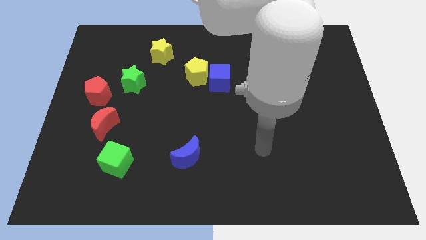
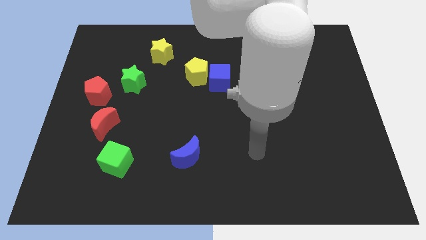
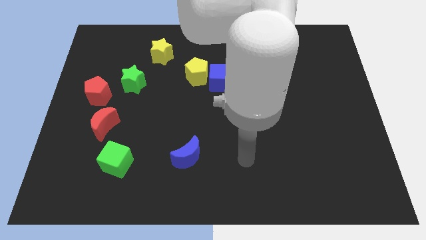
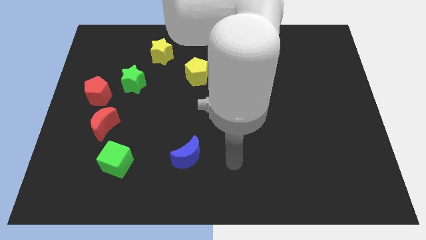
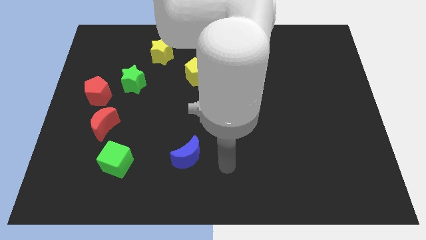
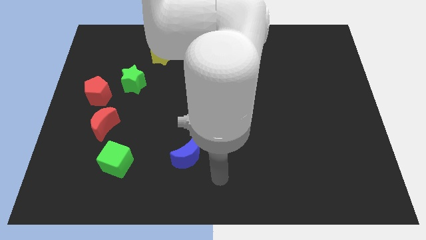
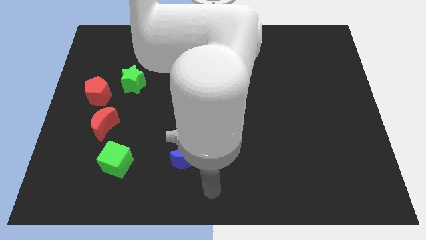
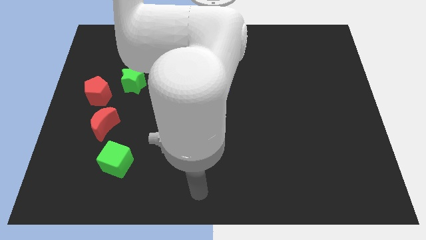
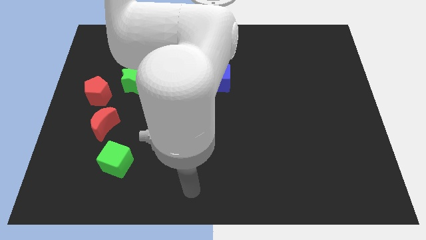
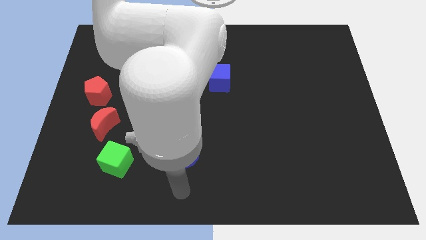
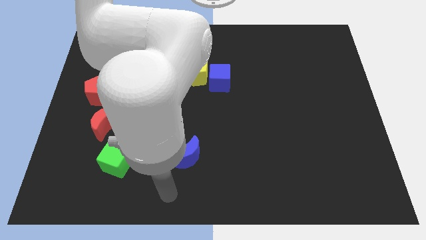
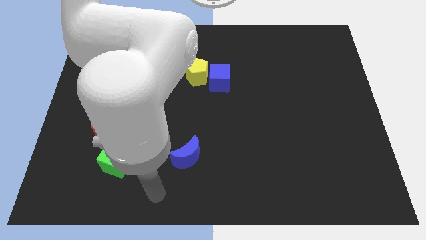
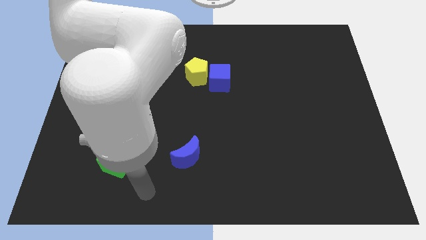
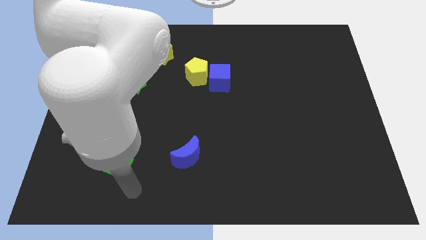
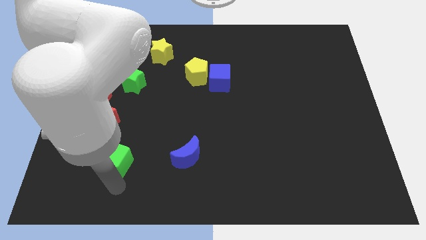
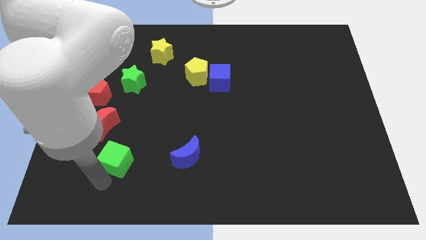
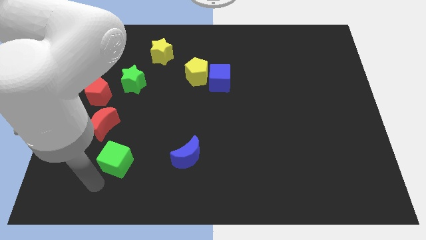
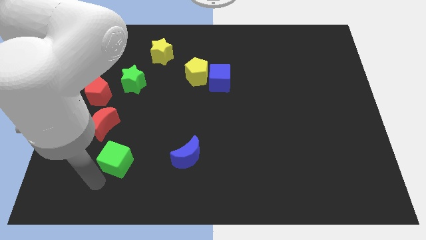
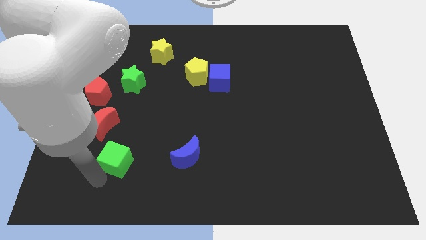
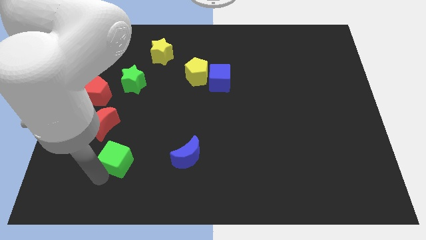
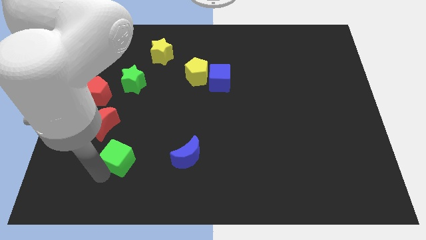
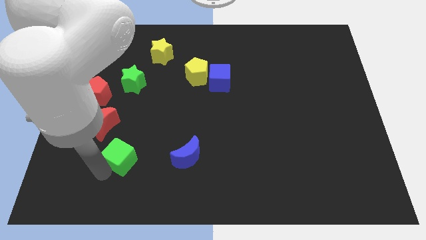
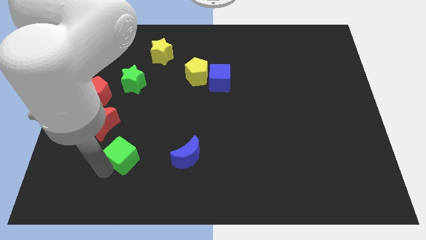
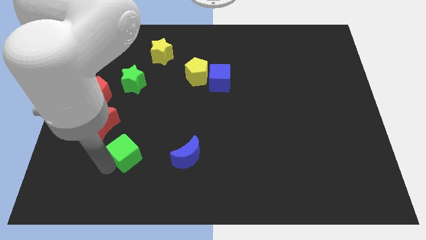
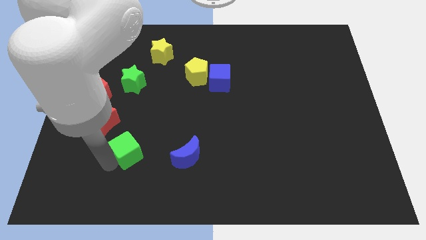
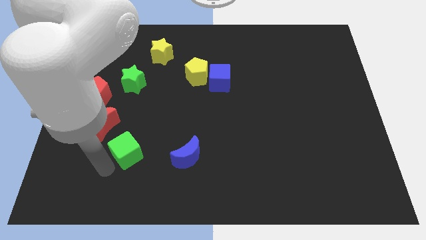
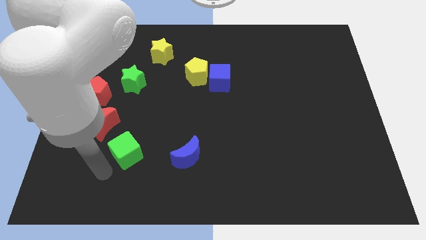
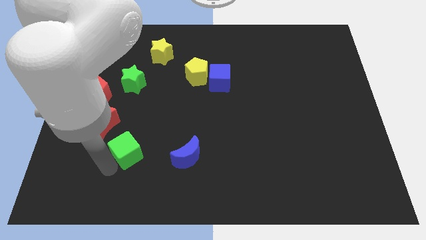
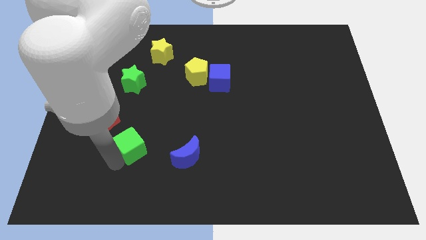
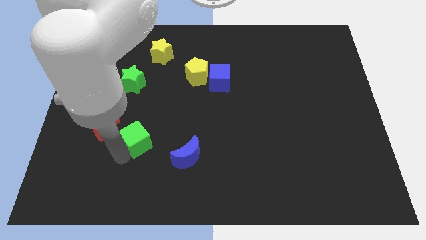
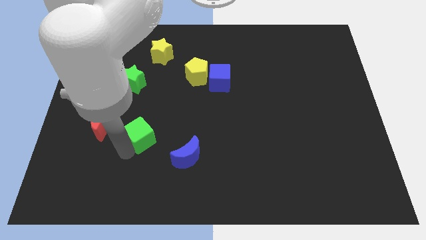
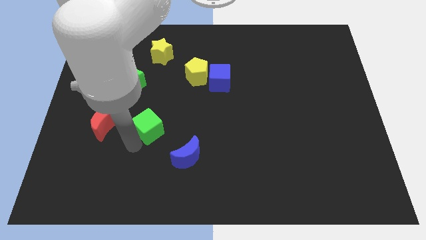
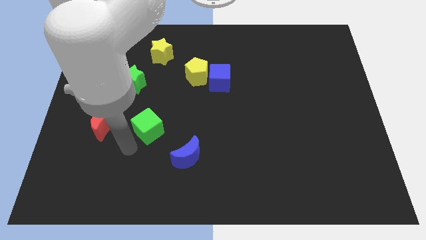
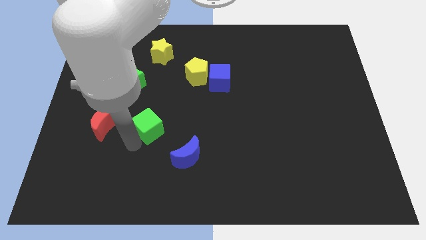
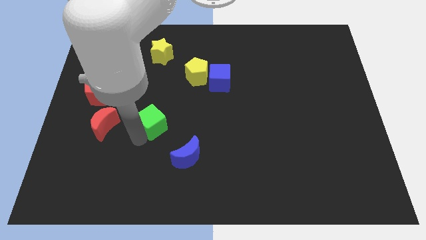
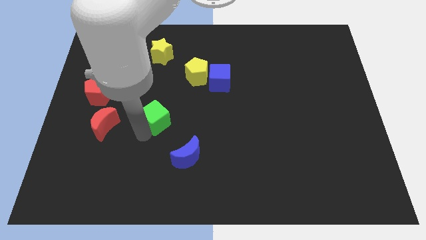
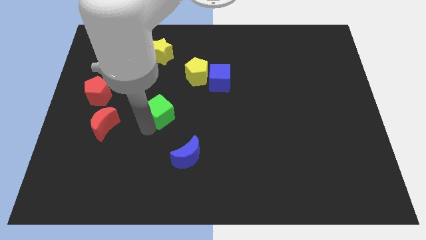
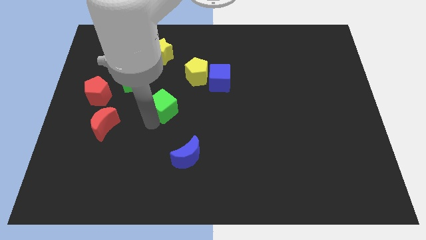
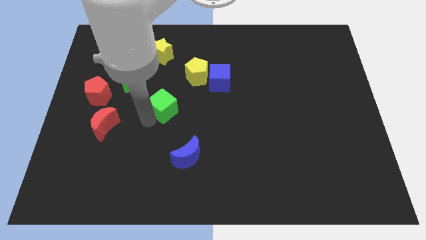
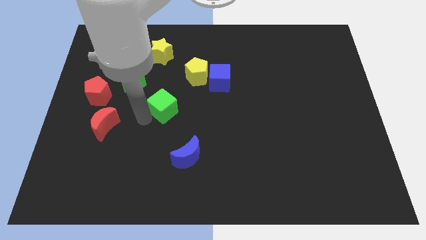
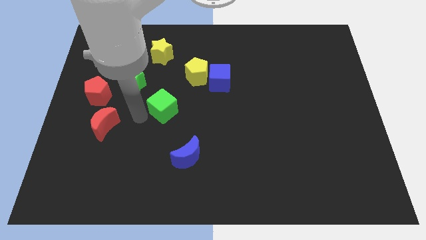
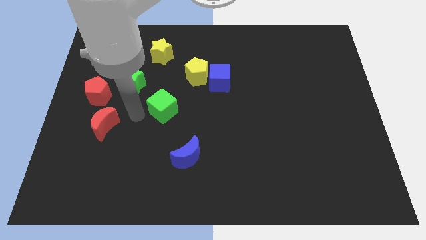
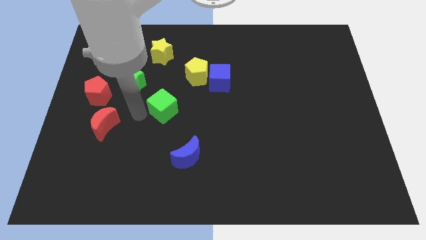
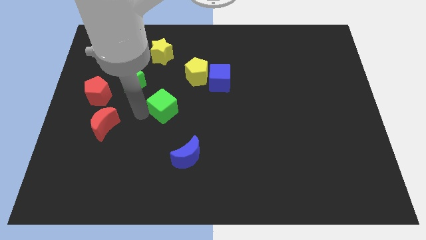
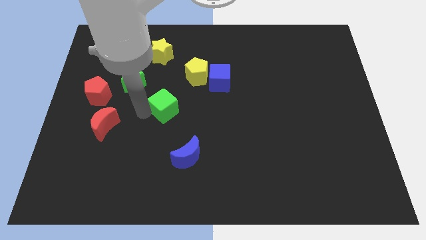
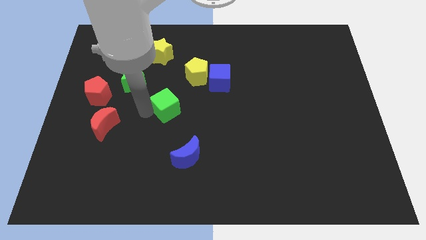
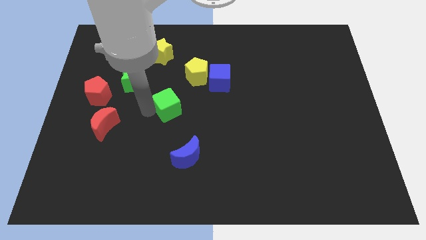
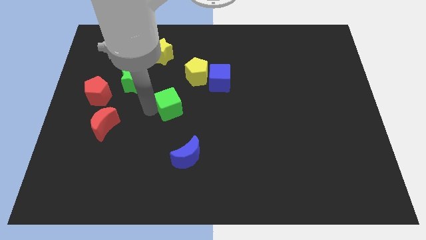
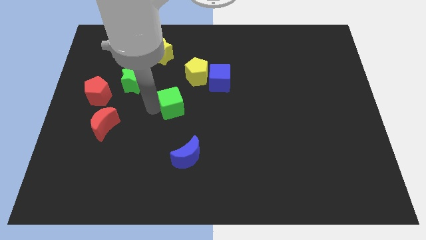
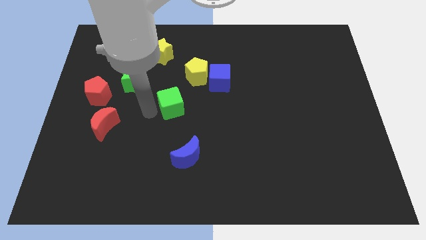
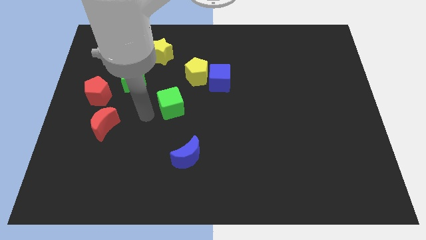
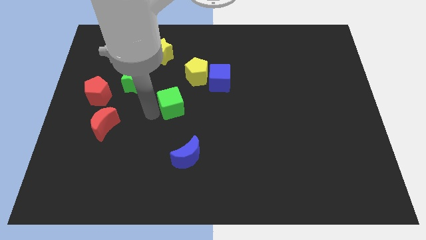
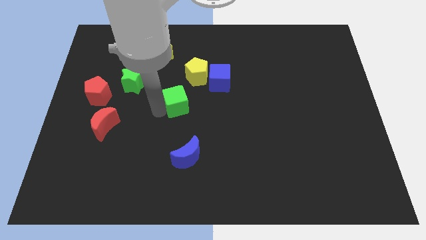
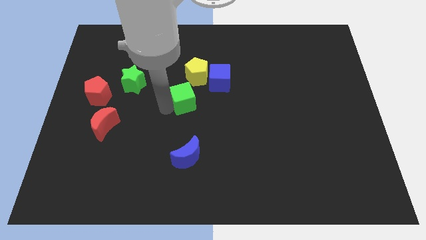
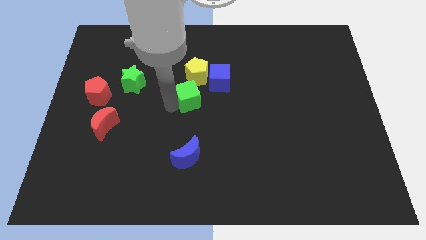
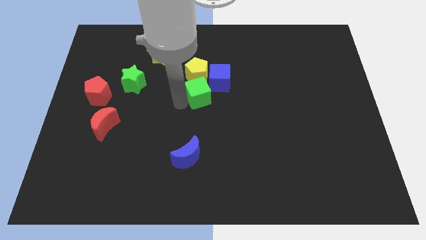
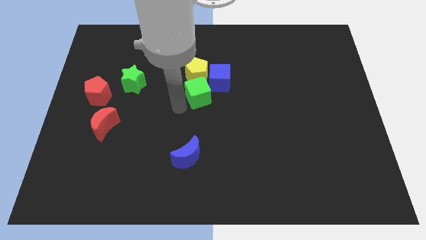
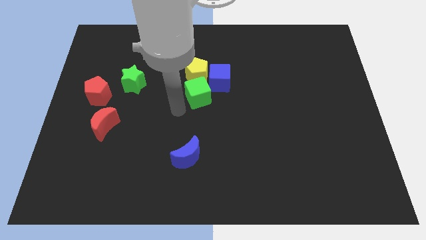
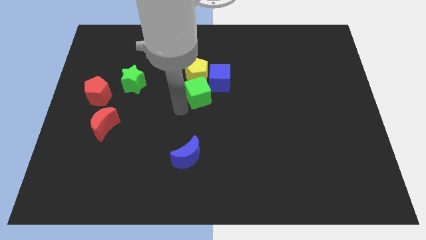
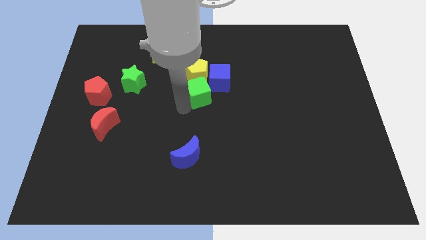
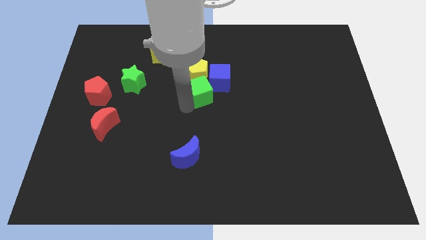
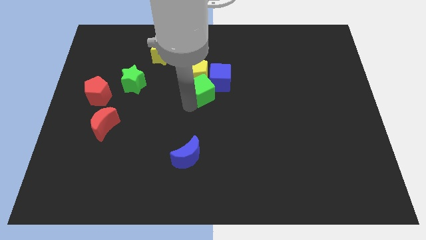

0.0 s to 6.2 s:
push the green cube next to the blue cube
